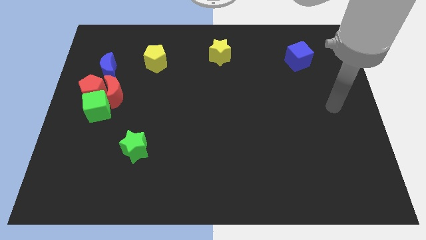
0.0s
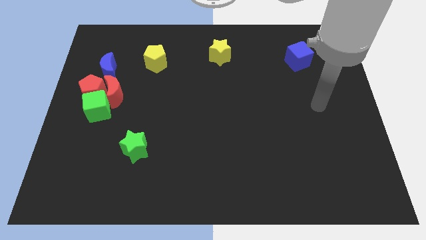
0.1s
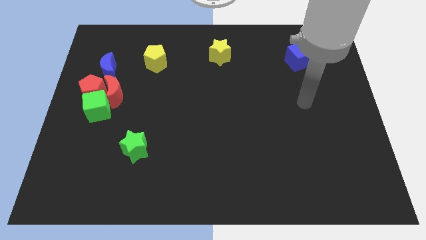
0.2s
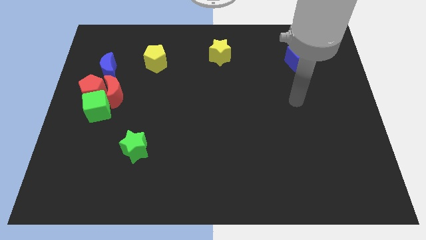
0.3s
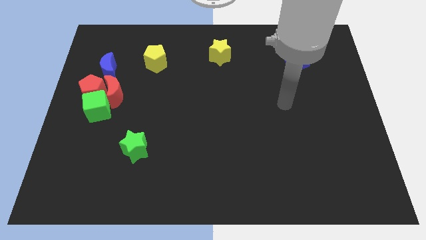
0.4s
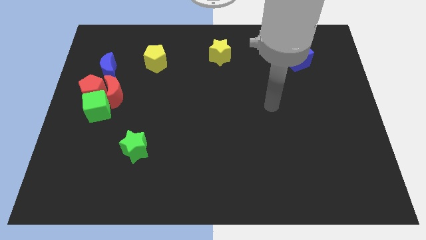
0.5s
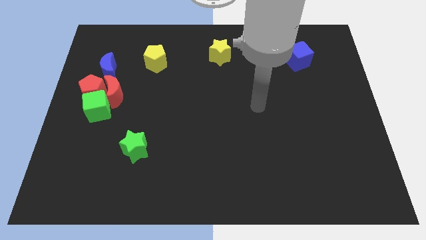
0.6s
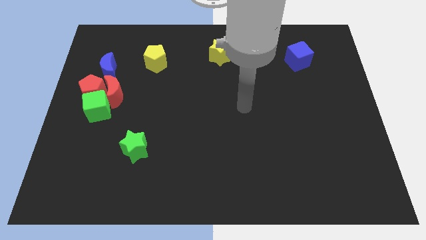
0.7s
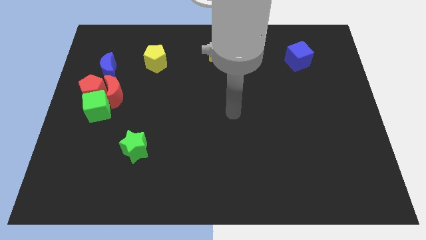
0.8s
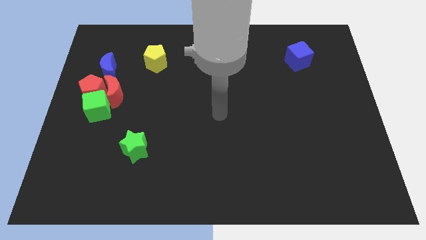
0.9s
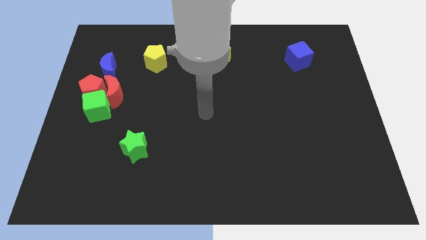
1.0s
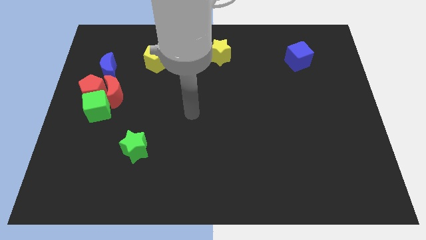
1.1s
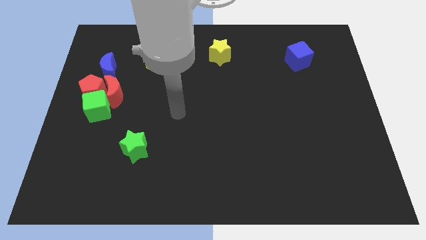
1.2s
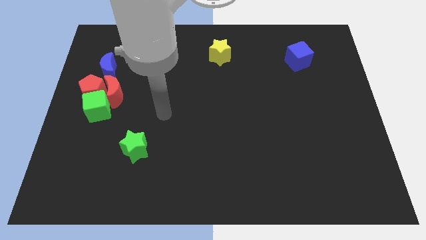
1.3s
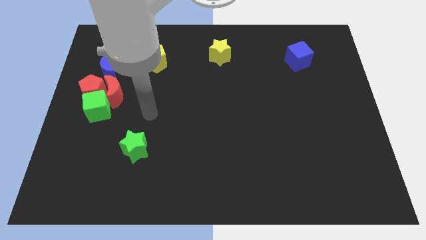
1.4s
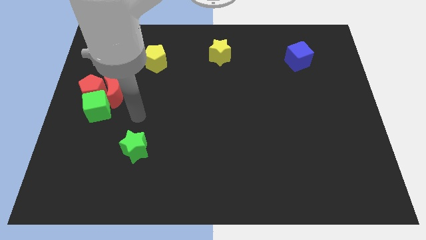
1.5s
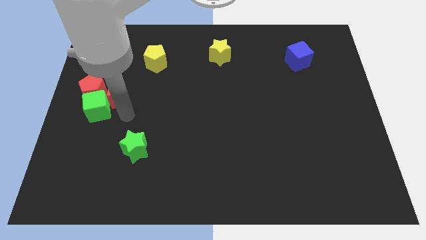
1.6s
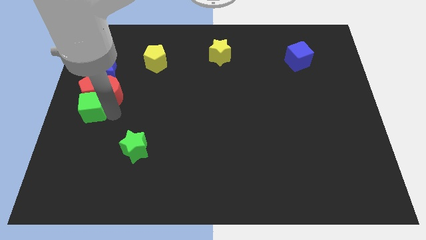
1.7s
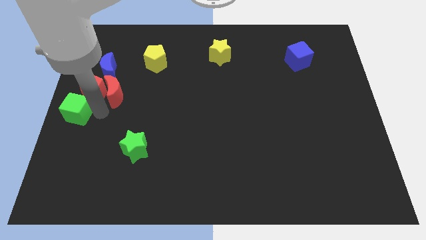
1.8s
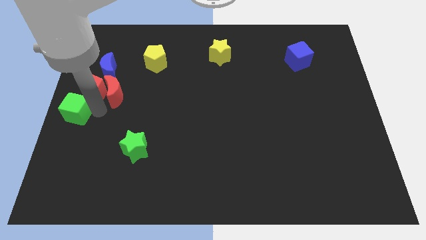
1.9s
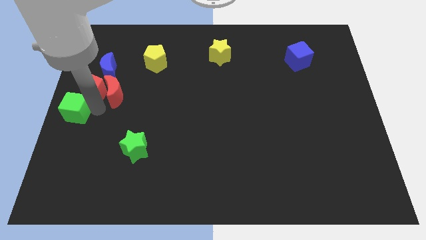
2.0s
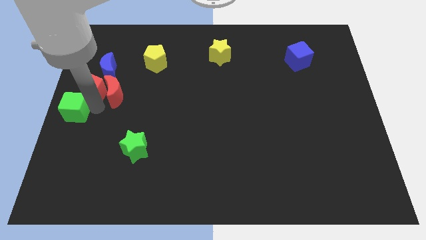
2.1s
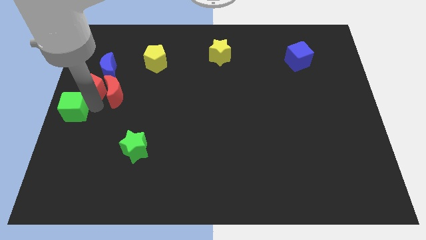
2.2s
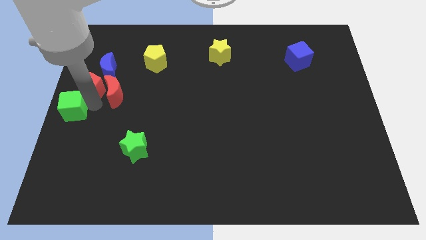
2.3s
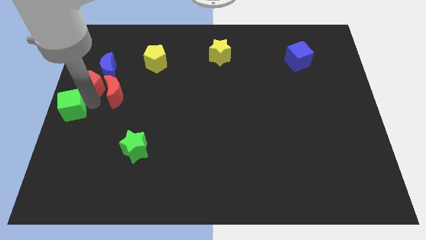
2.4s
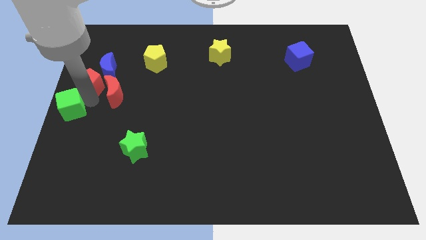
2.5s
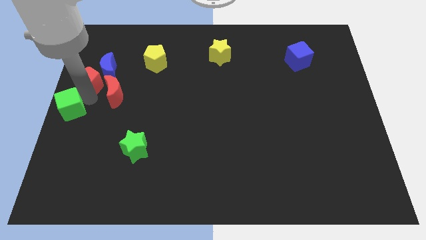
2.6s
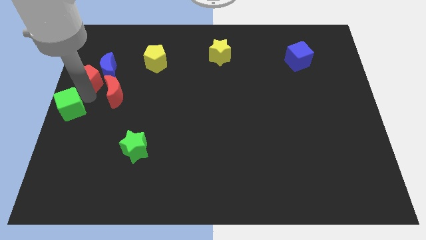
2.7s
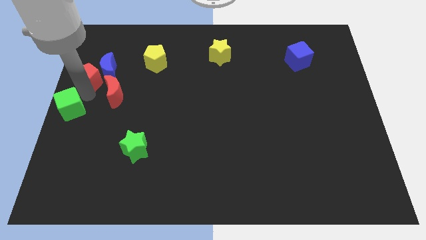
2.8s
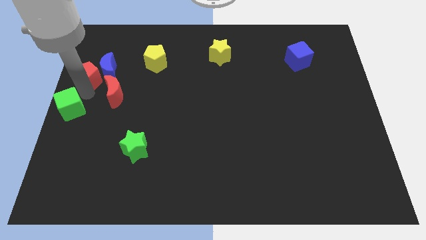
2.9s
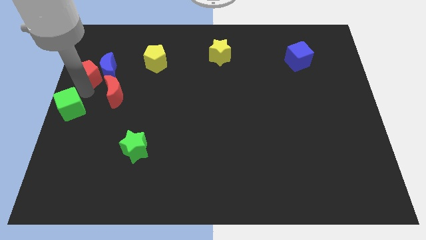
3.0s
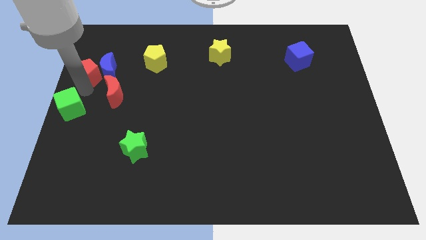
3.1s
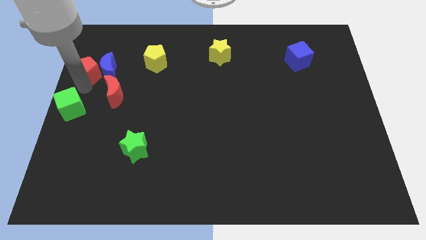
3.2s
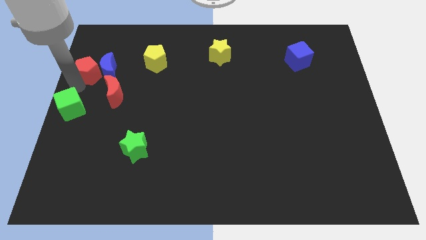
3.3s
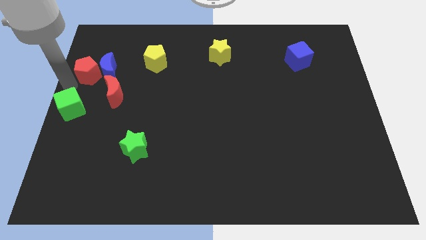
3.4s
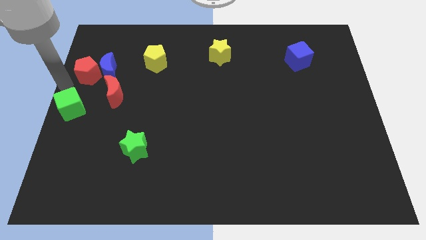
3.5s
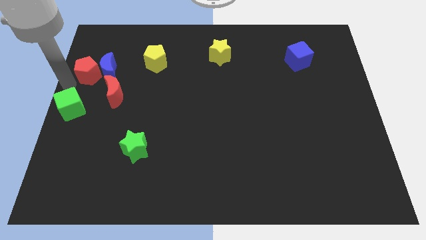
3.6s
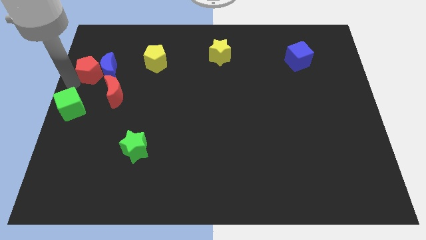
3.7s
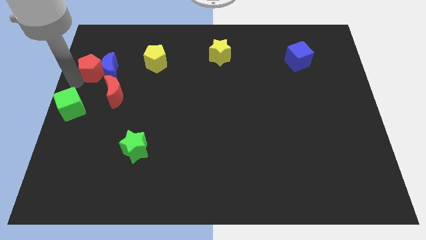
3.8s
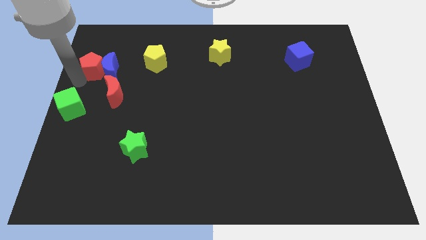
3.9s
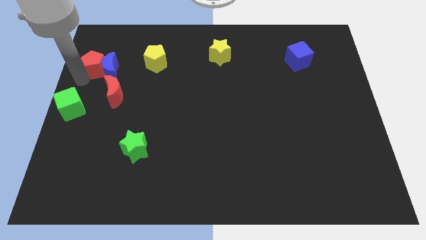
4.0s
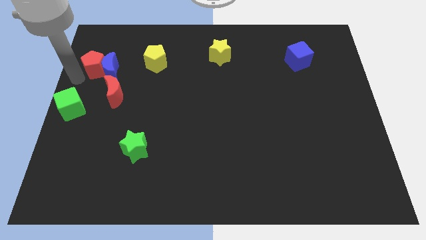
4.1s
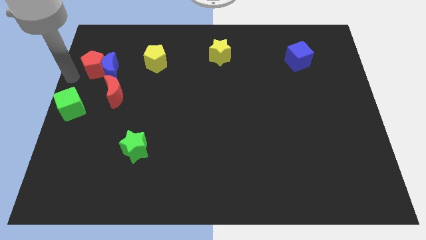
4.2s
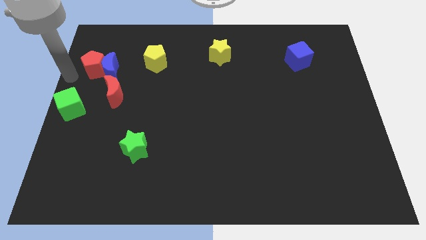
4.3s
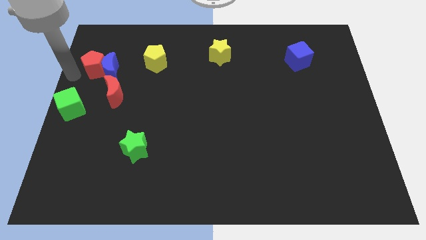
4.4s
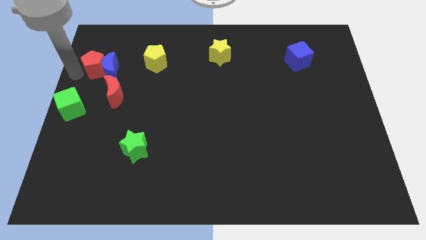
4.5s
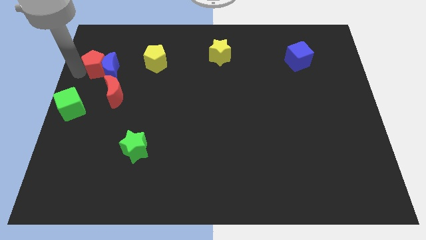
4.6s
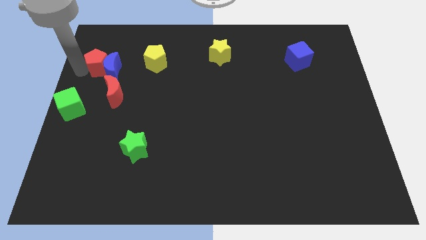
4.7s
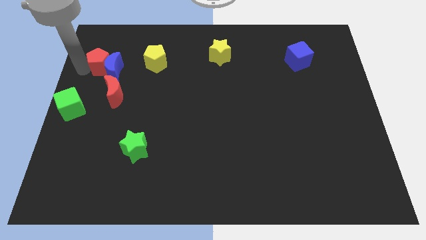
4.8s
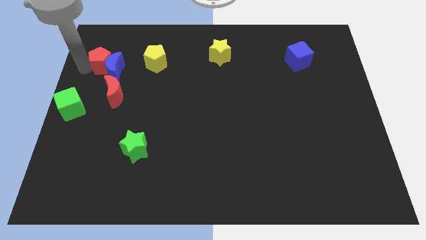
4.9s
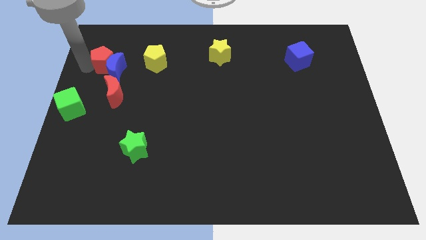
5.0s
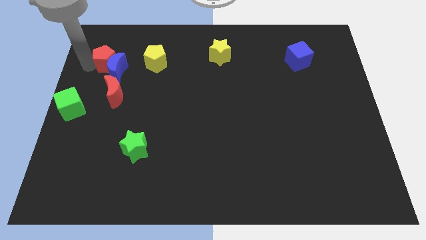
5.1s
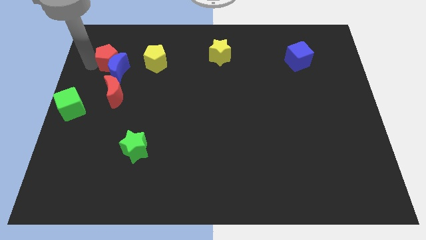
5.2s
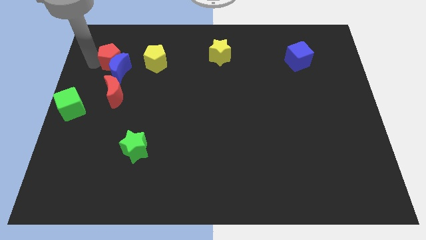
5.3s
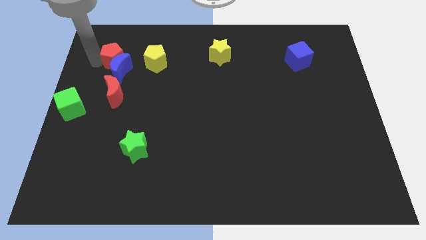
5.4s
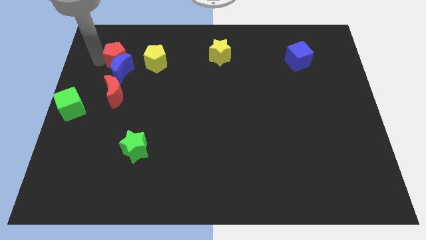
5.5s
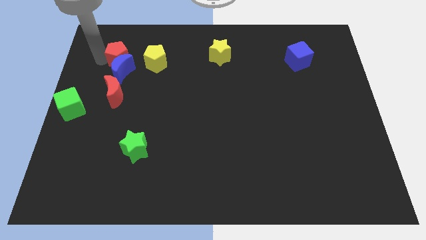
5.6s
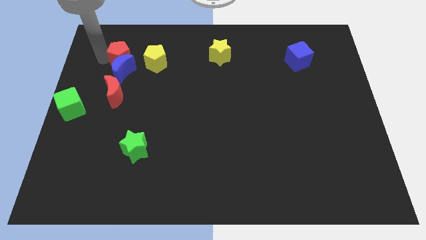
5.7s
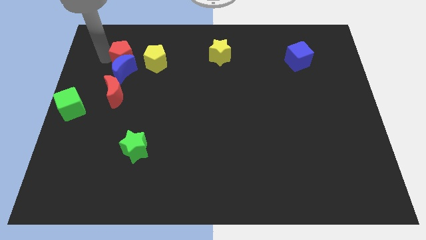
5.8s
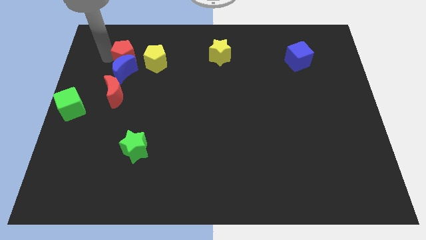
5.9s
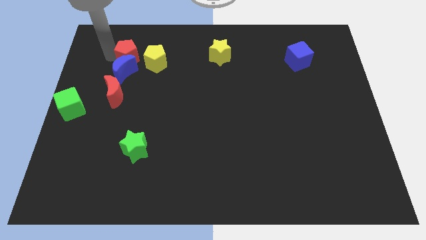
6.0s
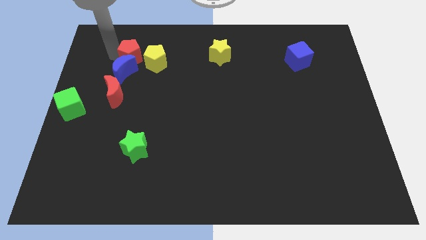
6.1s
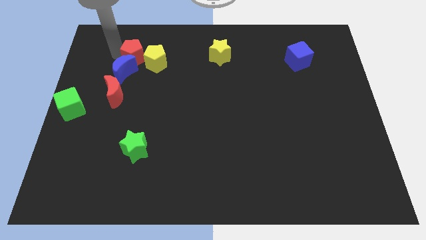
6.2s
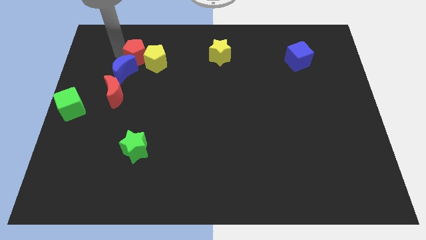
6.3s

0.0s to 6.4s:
push the red pentagon close to the yellow pentagon
